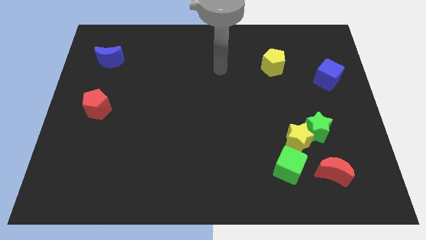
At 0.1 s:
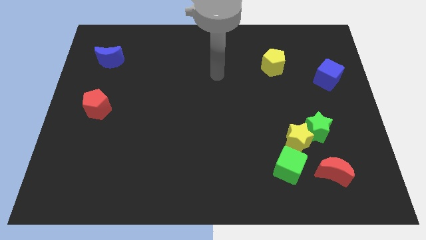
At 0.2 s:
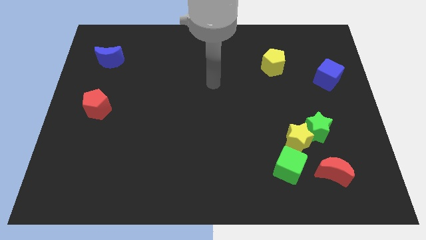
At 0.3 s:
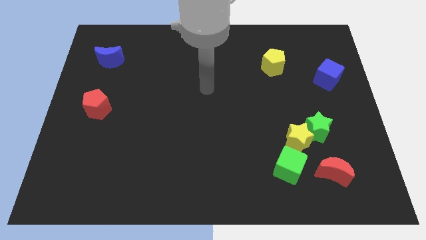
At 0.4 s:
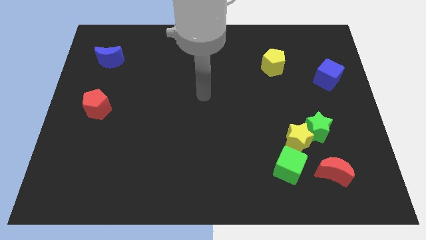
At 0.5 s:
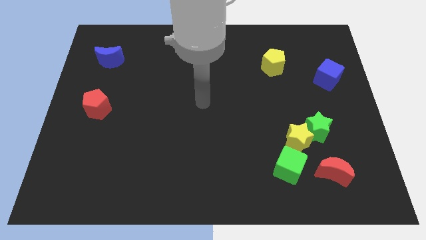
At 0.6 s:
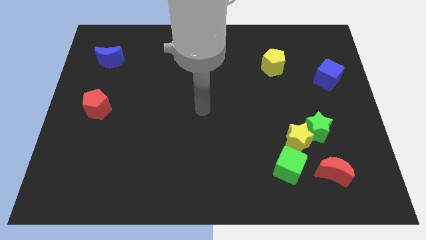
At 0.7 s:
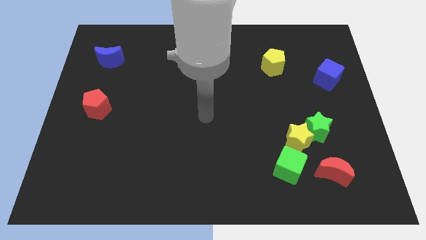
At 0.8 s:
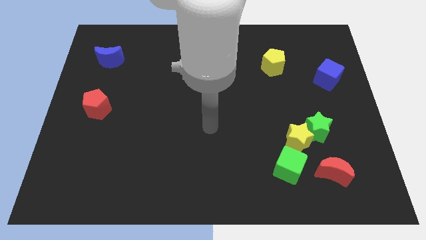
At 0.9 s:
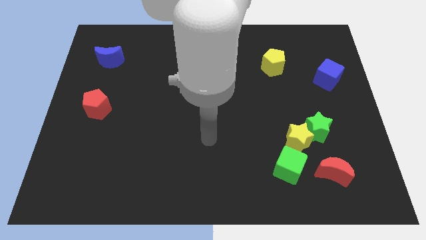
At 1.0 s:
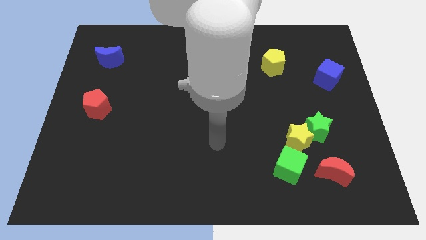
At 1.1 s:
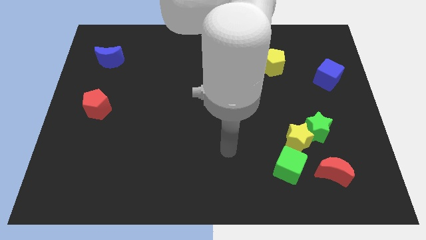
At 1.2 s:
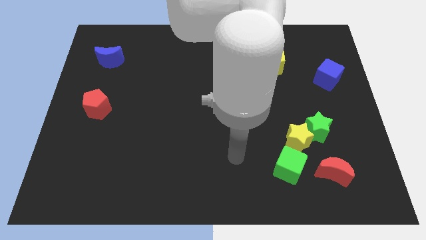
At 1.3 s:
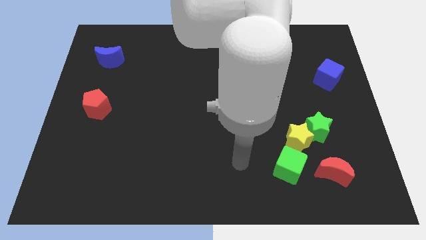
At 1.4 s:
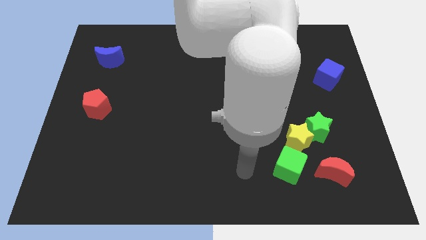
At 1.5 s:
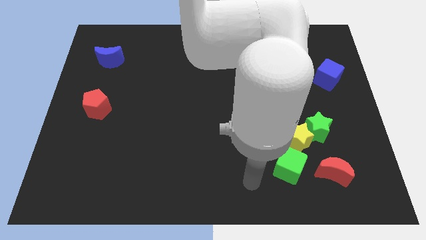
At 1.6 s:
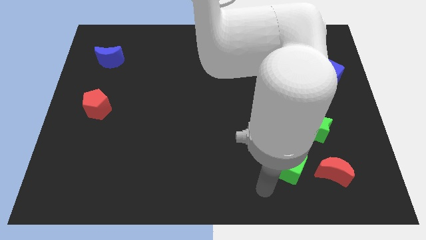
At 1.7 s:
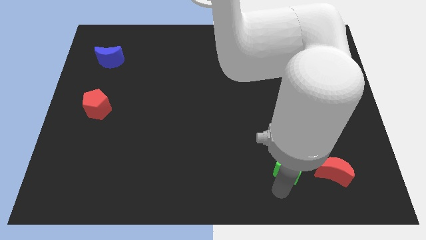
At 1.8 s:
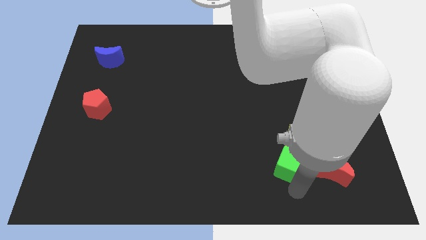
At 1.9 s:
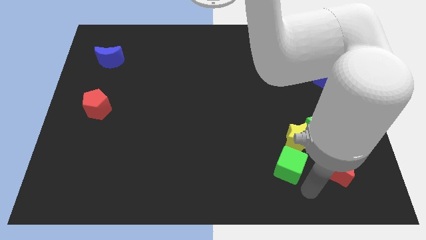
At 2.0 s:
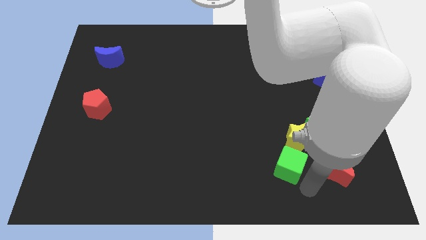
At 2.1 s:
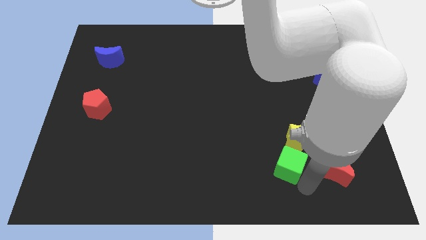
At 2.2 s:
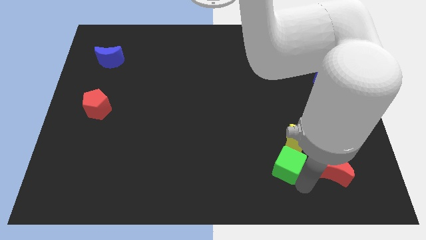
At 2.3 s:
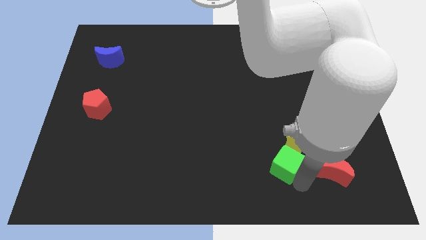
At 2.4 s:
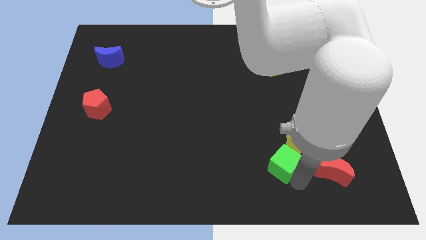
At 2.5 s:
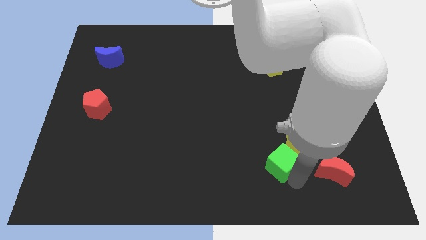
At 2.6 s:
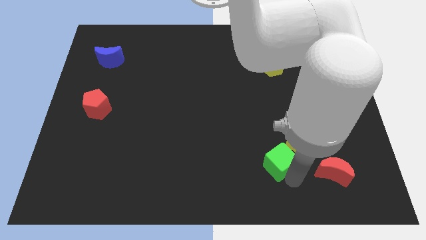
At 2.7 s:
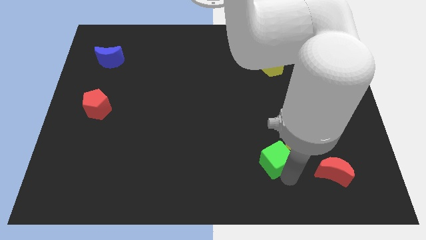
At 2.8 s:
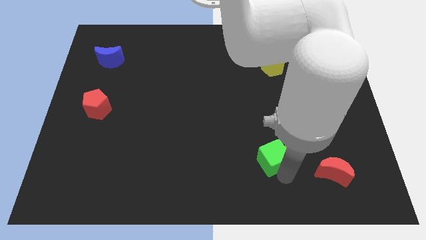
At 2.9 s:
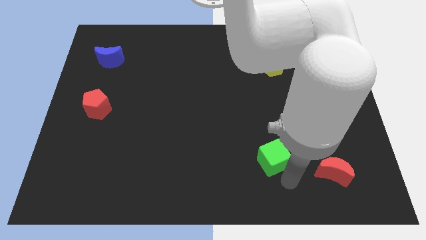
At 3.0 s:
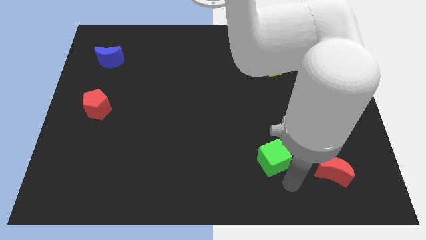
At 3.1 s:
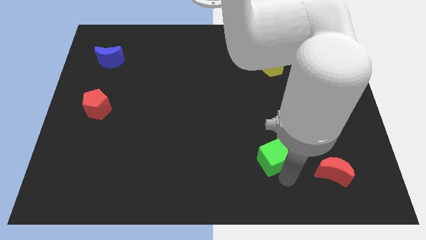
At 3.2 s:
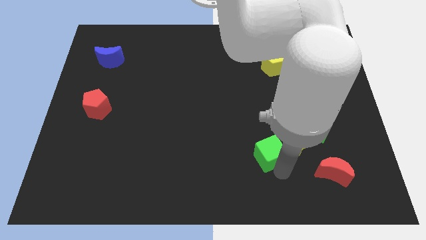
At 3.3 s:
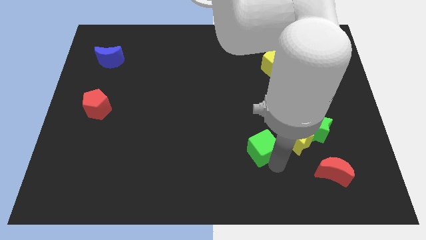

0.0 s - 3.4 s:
slide the green cube diagonally up and to the left a little bit

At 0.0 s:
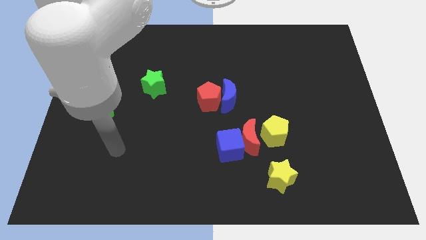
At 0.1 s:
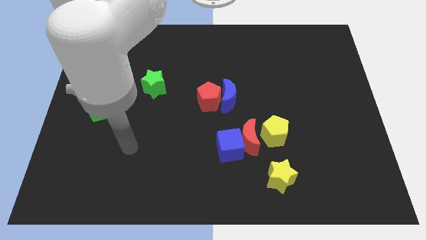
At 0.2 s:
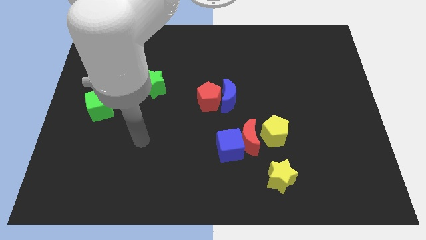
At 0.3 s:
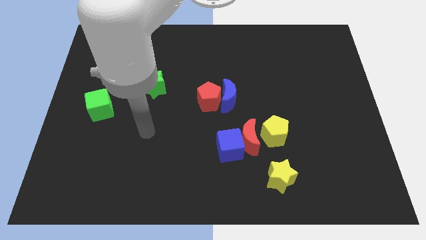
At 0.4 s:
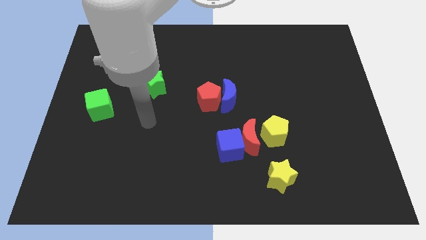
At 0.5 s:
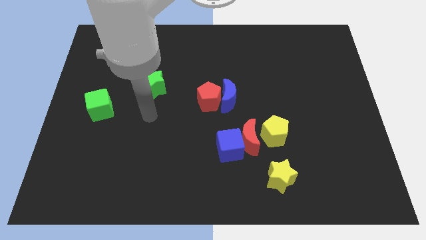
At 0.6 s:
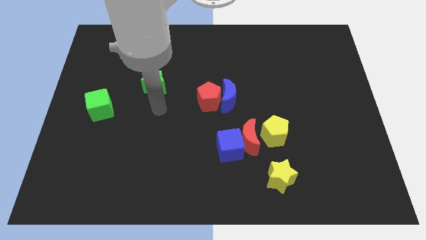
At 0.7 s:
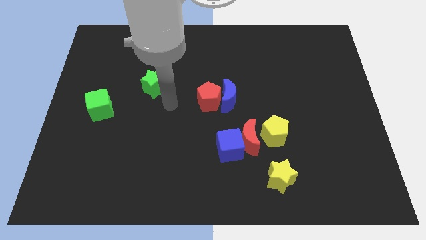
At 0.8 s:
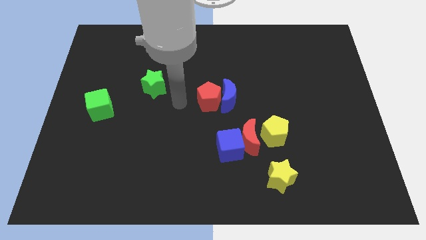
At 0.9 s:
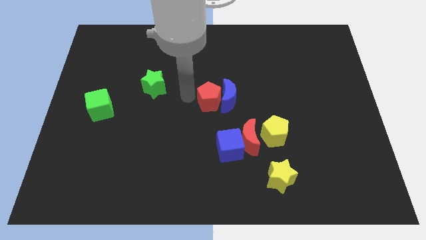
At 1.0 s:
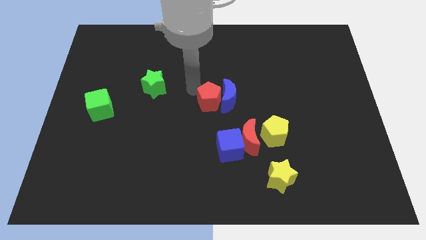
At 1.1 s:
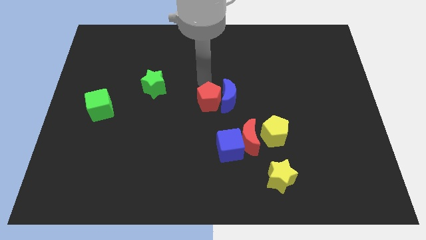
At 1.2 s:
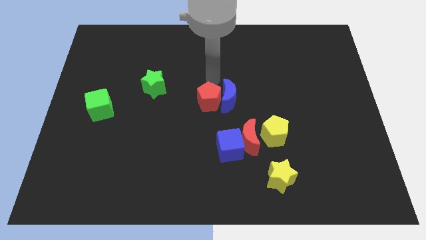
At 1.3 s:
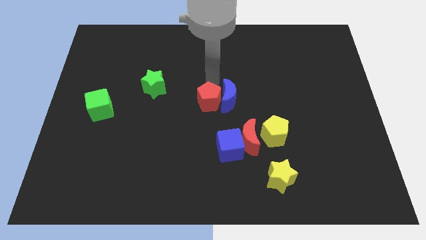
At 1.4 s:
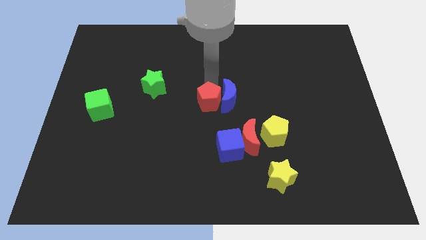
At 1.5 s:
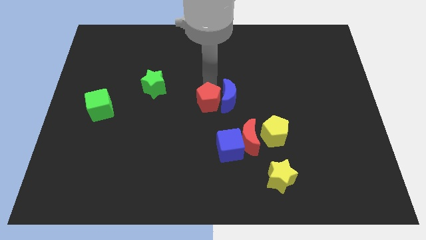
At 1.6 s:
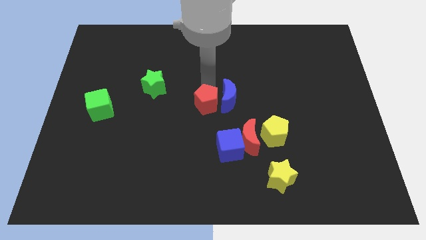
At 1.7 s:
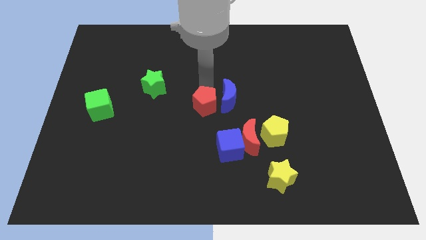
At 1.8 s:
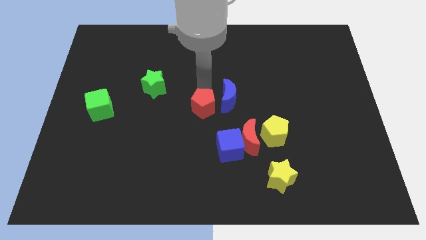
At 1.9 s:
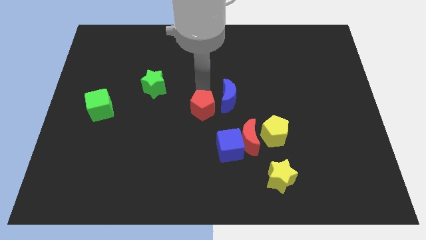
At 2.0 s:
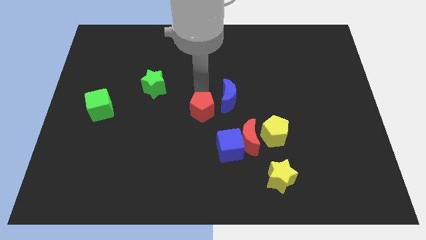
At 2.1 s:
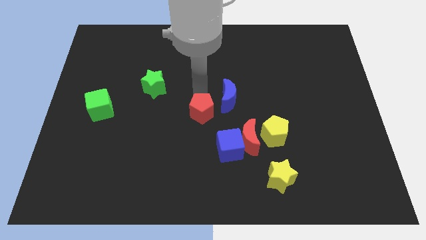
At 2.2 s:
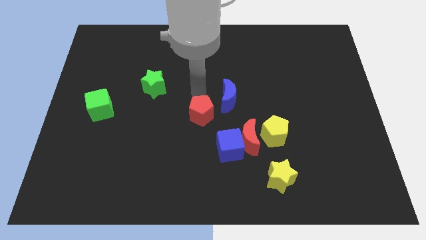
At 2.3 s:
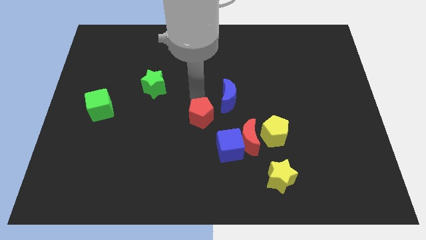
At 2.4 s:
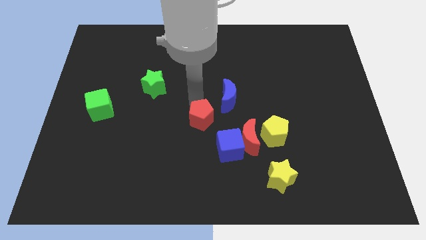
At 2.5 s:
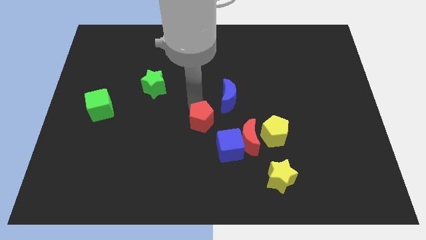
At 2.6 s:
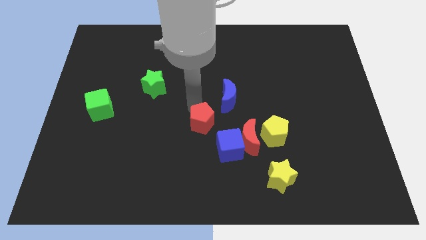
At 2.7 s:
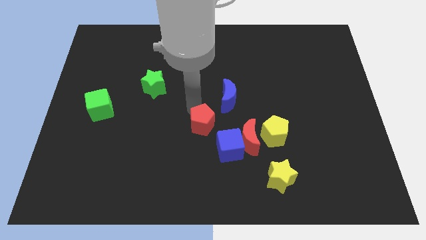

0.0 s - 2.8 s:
slide the red pentagon a little bit downwards

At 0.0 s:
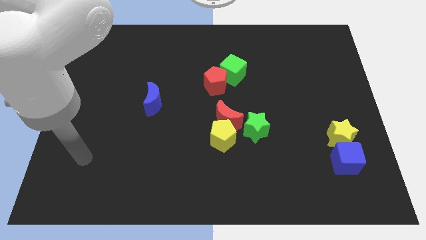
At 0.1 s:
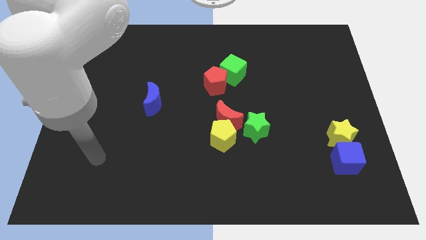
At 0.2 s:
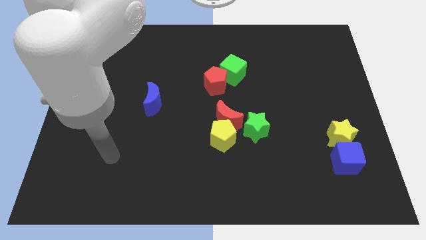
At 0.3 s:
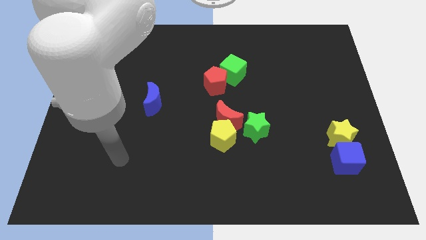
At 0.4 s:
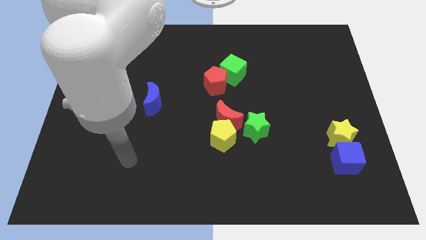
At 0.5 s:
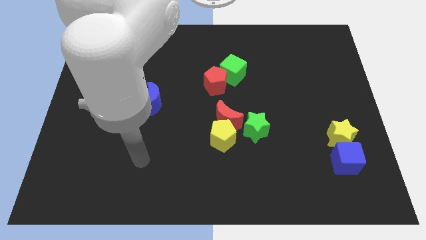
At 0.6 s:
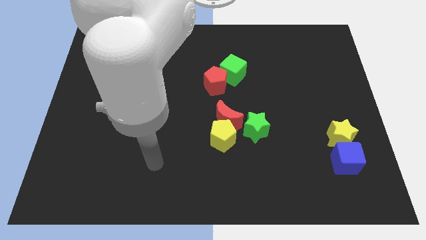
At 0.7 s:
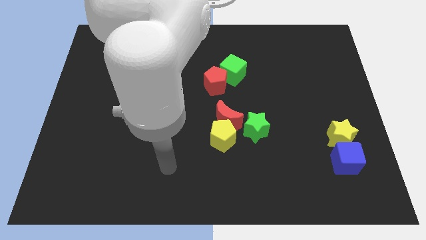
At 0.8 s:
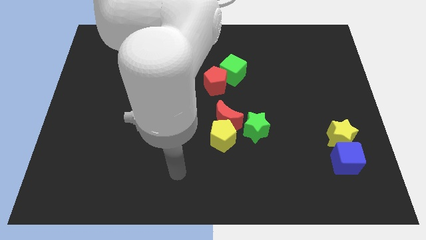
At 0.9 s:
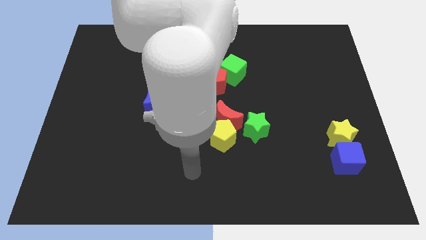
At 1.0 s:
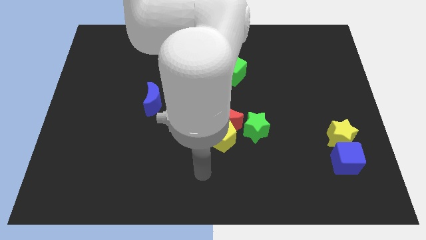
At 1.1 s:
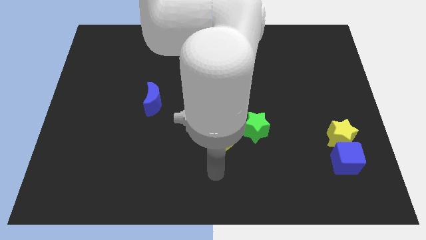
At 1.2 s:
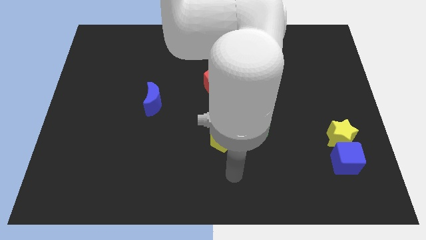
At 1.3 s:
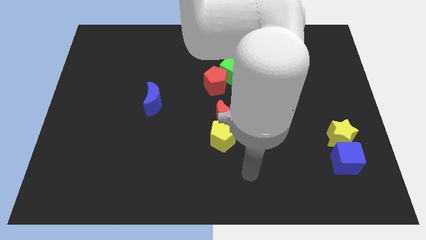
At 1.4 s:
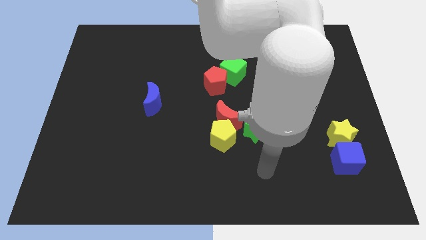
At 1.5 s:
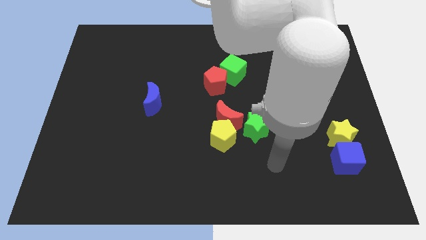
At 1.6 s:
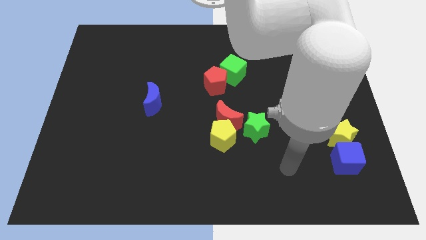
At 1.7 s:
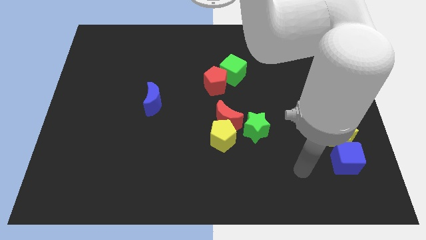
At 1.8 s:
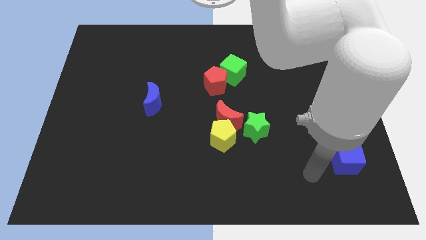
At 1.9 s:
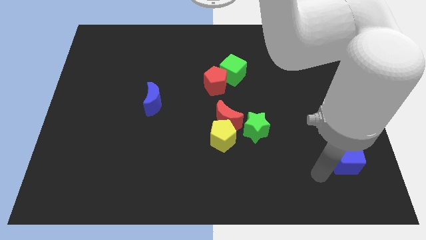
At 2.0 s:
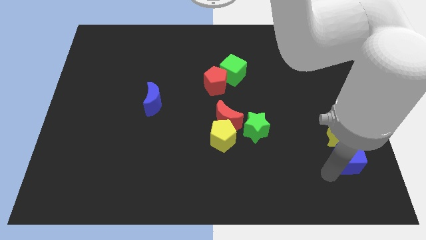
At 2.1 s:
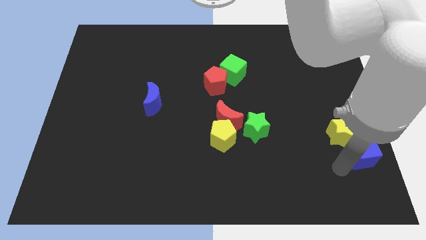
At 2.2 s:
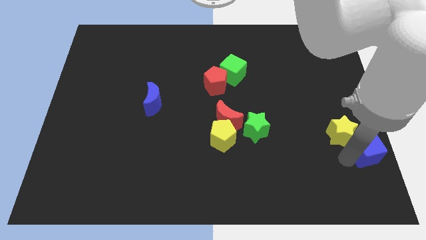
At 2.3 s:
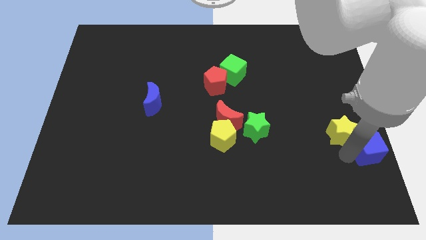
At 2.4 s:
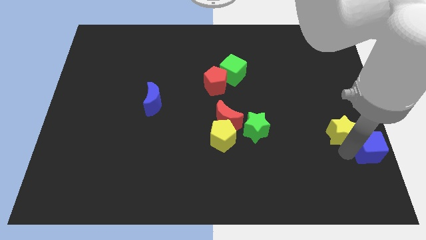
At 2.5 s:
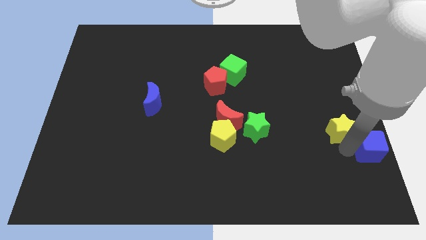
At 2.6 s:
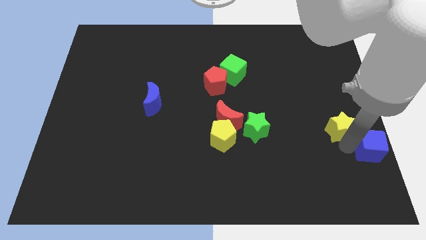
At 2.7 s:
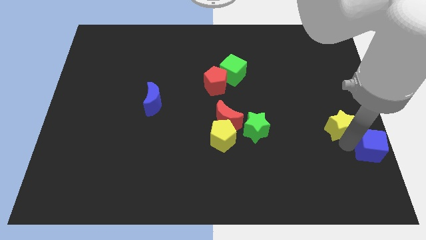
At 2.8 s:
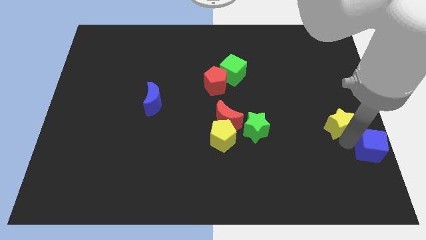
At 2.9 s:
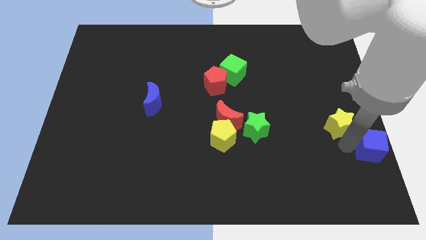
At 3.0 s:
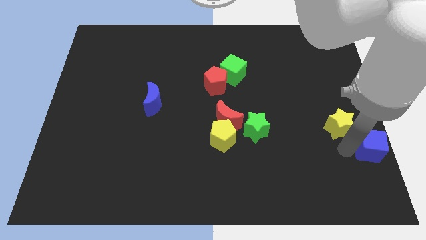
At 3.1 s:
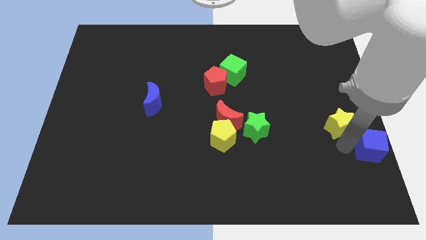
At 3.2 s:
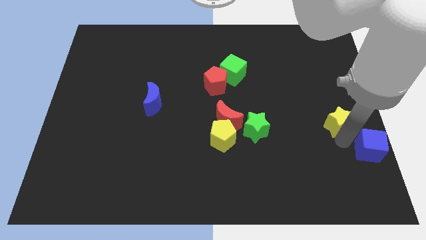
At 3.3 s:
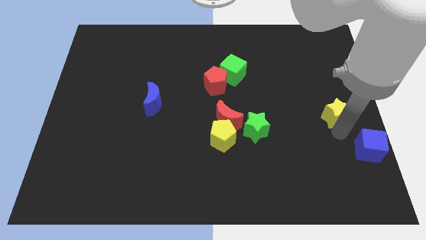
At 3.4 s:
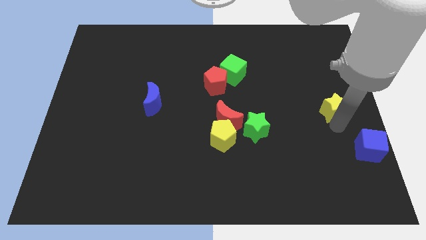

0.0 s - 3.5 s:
slide the yellow star somewhat up
